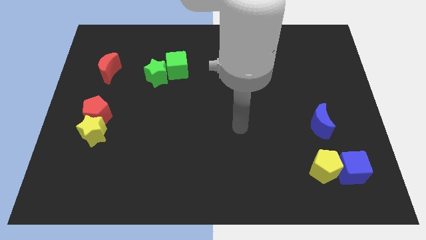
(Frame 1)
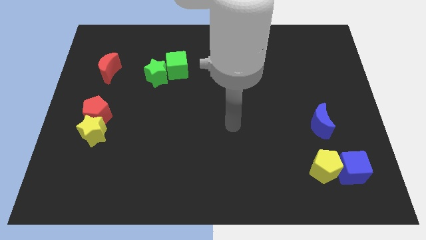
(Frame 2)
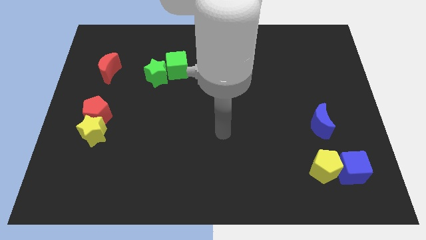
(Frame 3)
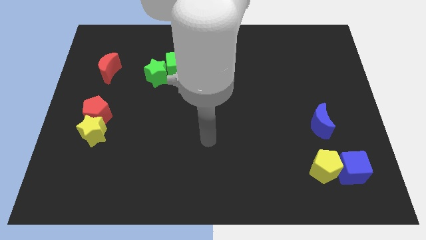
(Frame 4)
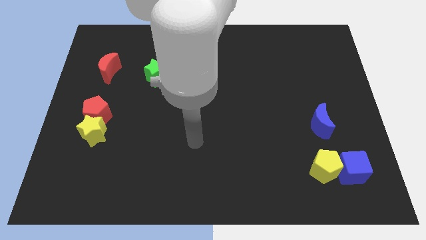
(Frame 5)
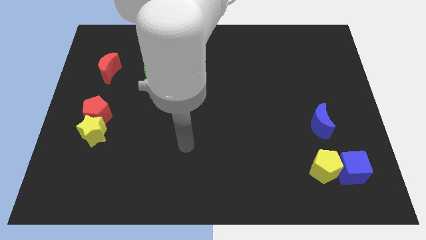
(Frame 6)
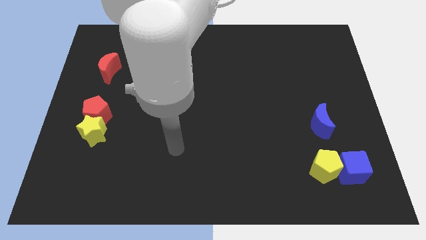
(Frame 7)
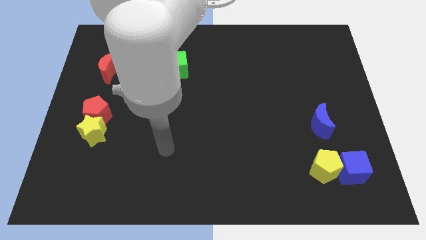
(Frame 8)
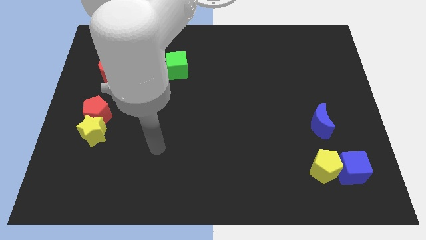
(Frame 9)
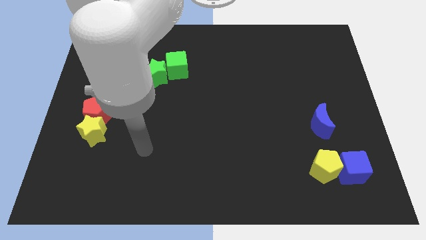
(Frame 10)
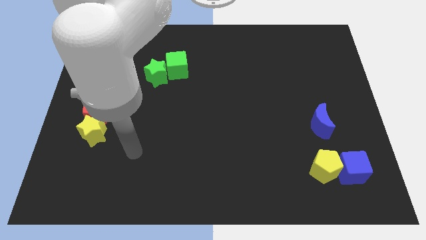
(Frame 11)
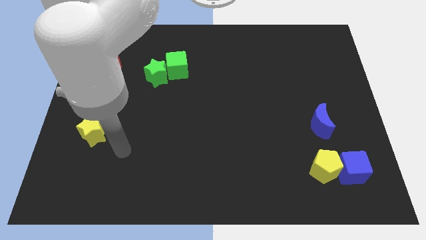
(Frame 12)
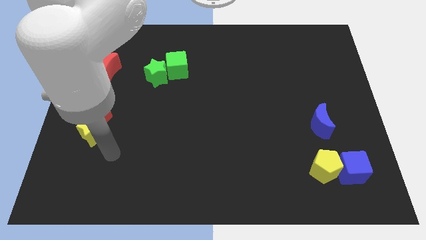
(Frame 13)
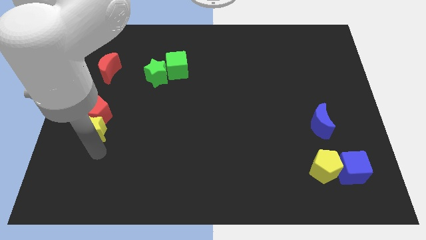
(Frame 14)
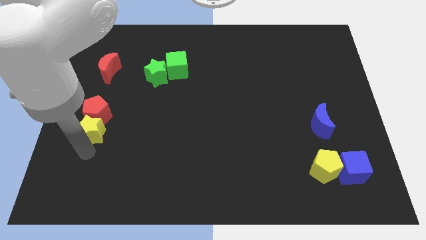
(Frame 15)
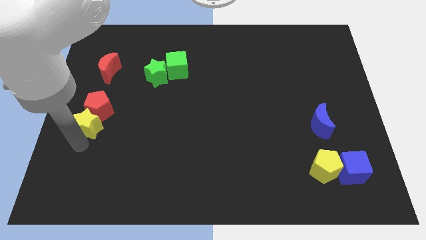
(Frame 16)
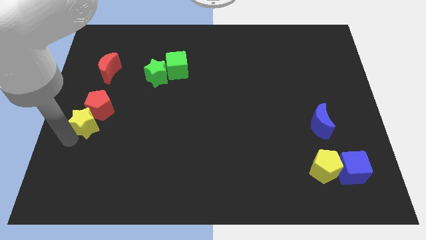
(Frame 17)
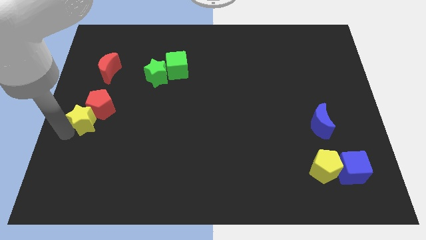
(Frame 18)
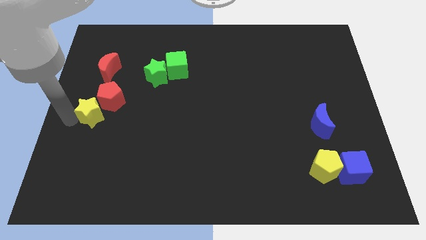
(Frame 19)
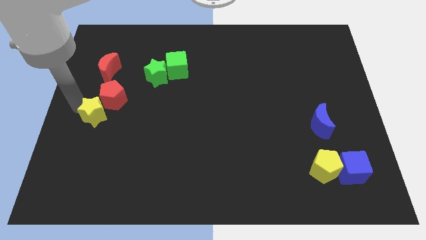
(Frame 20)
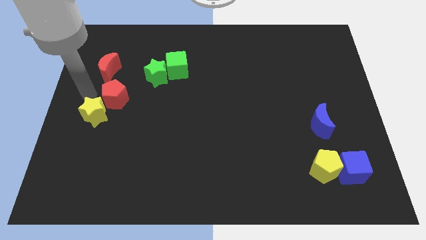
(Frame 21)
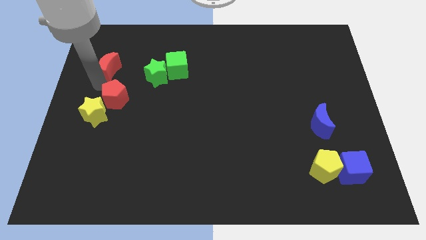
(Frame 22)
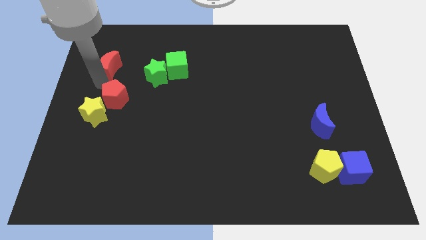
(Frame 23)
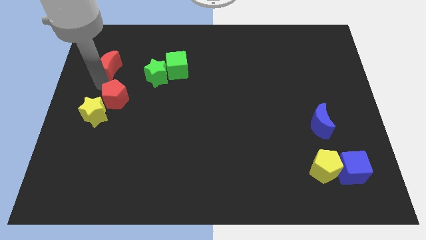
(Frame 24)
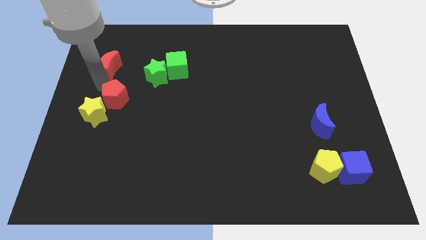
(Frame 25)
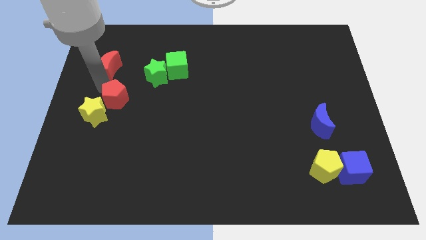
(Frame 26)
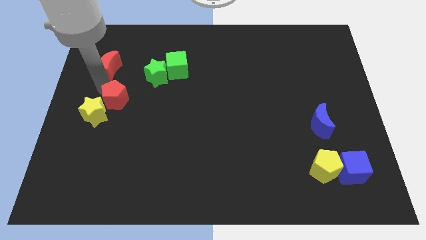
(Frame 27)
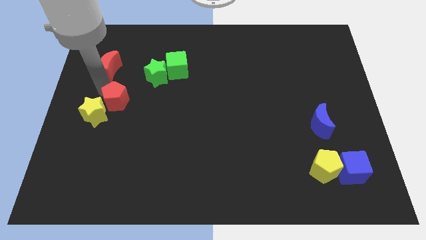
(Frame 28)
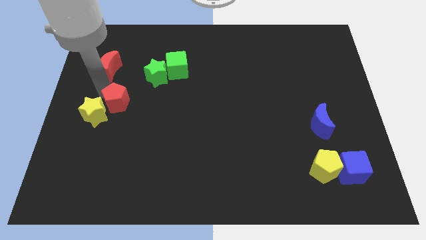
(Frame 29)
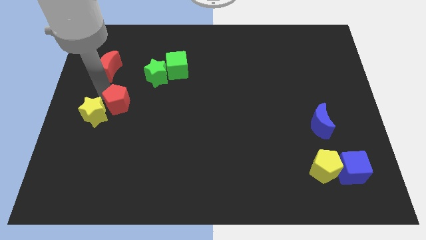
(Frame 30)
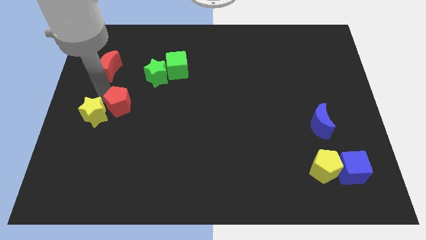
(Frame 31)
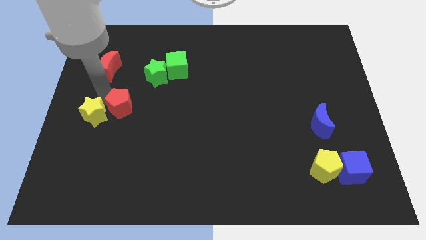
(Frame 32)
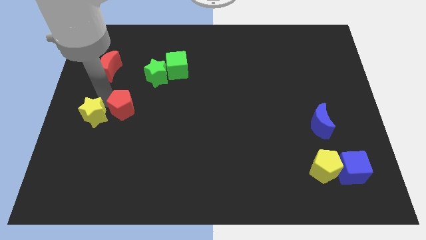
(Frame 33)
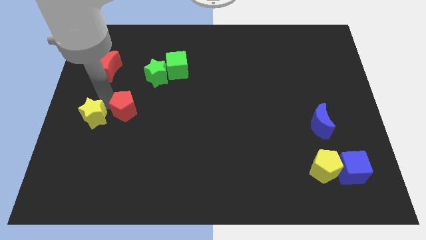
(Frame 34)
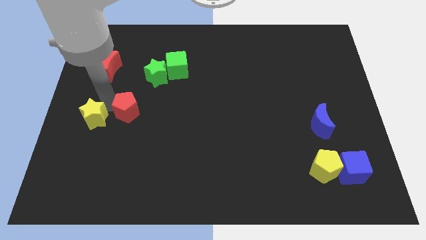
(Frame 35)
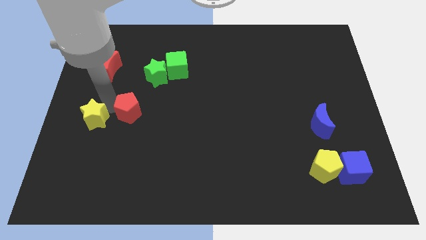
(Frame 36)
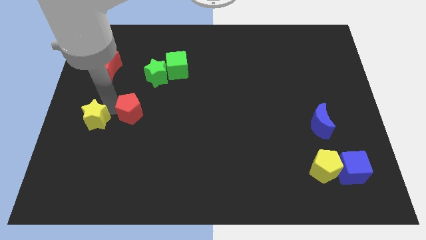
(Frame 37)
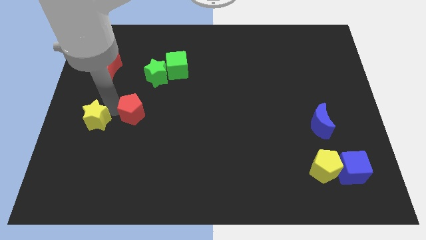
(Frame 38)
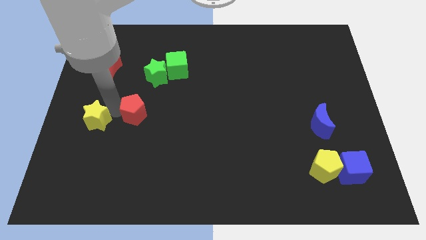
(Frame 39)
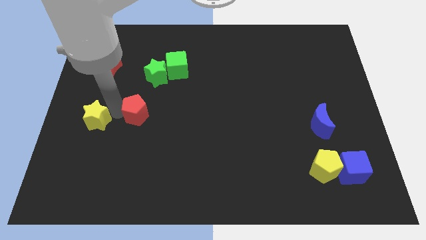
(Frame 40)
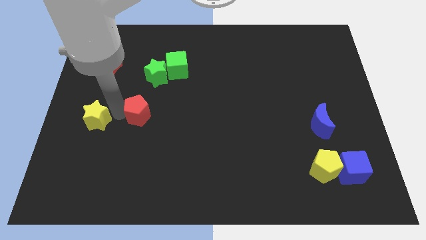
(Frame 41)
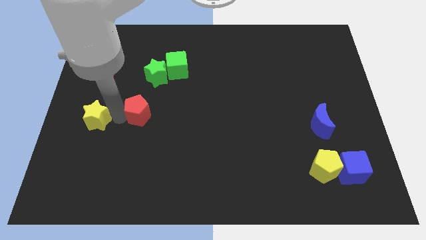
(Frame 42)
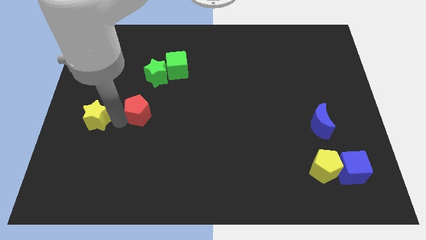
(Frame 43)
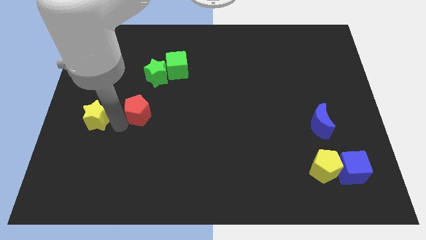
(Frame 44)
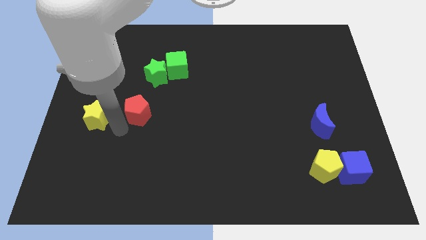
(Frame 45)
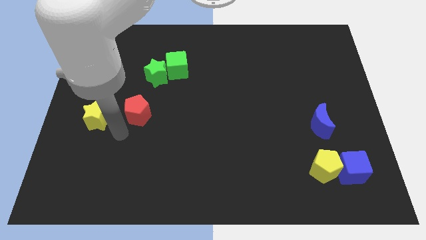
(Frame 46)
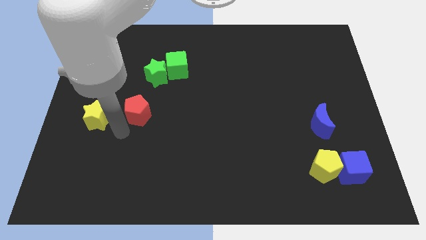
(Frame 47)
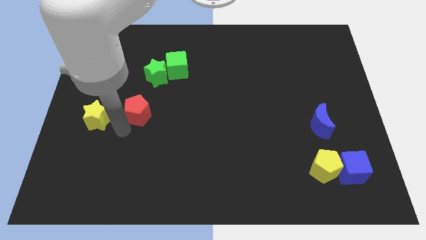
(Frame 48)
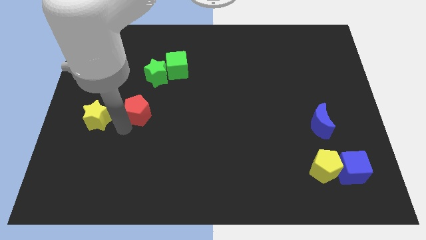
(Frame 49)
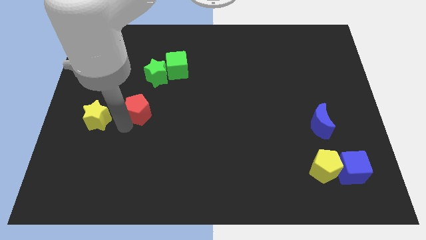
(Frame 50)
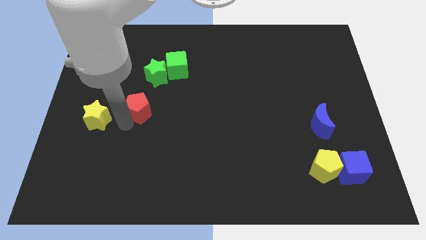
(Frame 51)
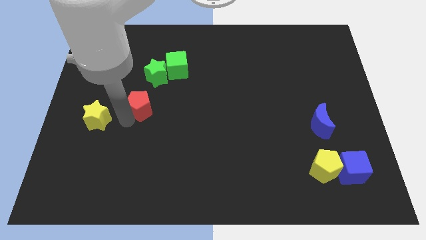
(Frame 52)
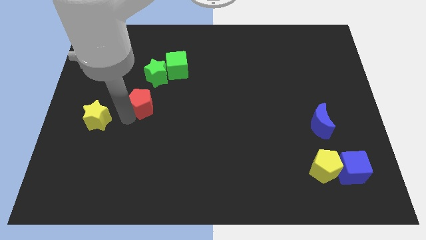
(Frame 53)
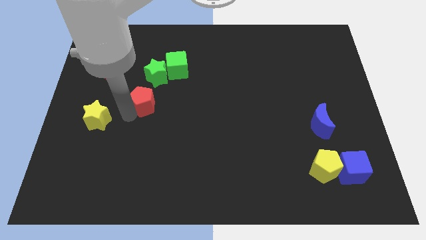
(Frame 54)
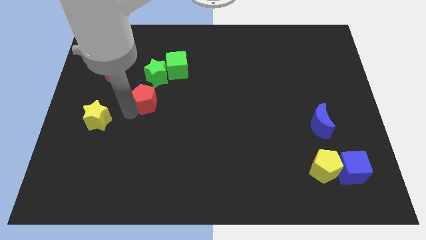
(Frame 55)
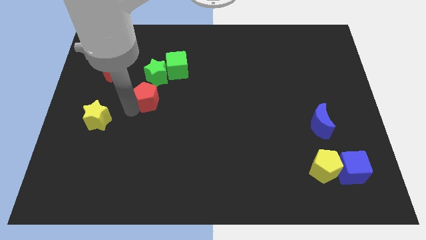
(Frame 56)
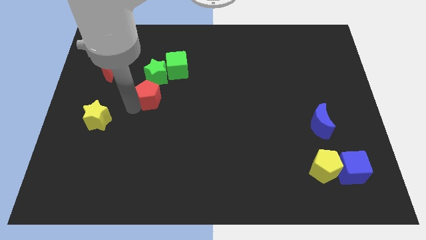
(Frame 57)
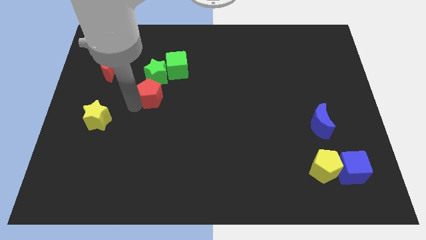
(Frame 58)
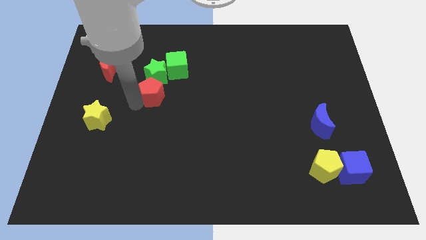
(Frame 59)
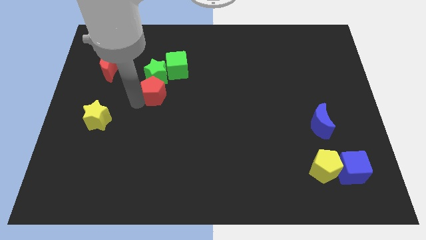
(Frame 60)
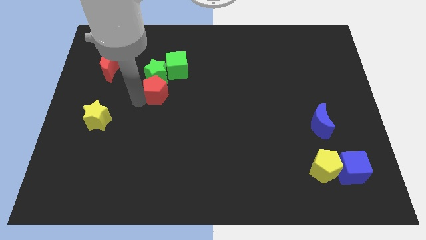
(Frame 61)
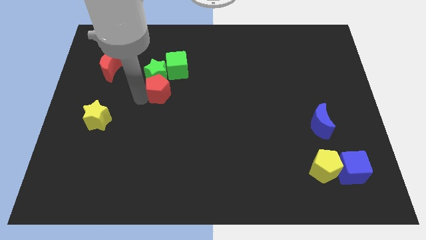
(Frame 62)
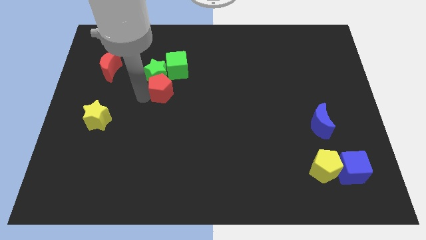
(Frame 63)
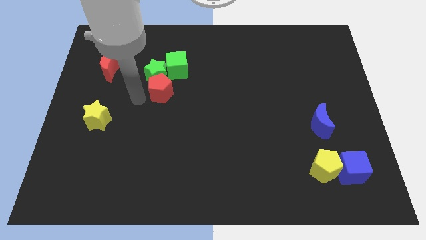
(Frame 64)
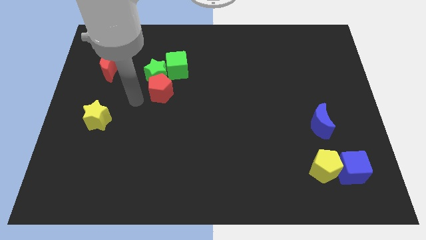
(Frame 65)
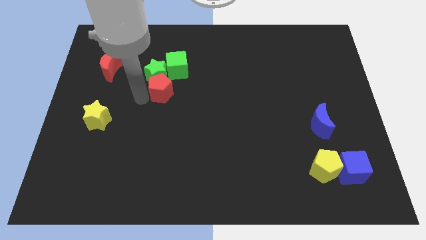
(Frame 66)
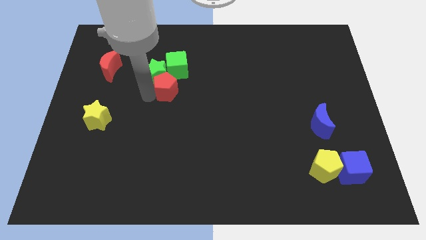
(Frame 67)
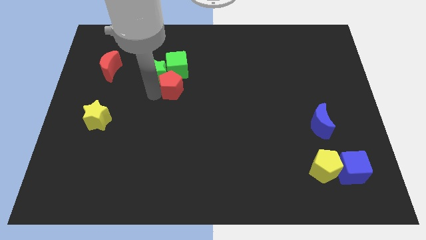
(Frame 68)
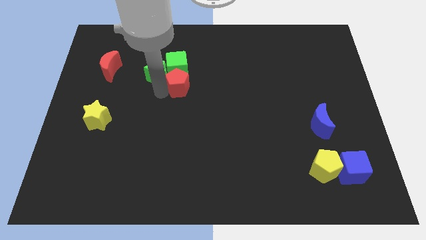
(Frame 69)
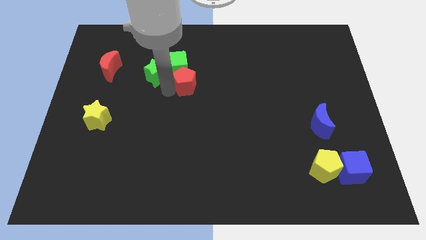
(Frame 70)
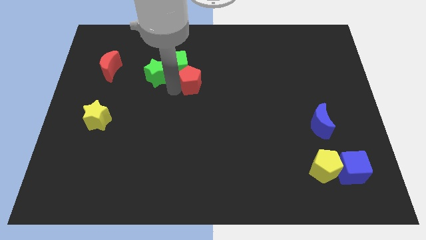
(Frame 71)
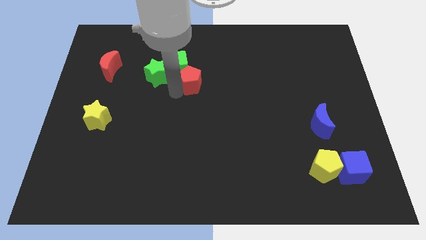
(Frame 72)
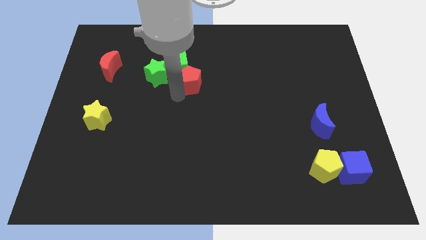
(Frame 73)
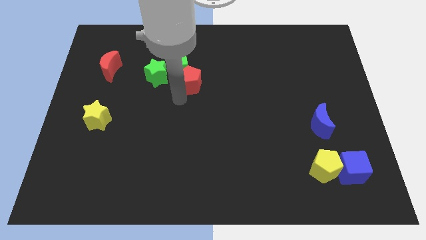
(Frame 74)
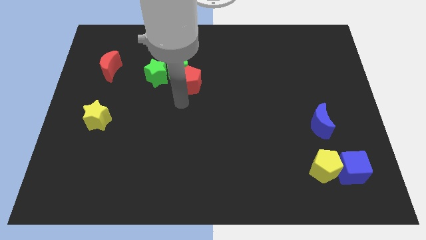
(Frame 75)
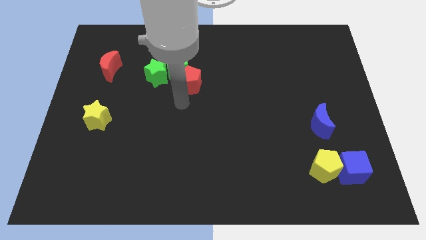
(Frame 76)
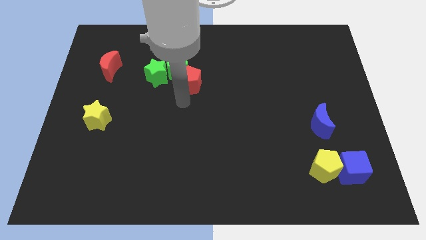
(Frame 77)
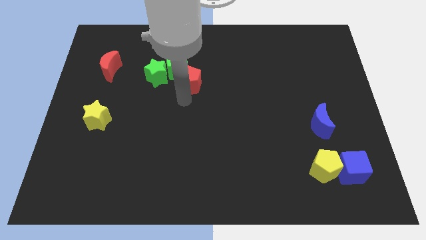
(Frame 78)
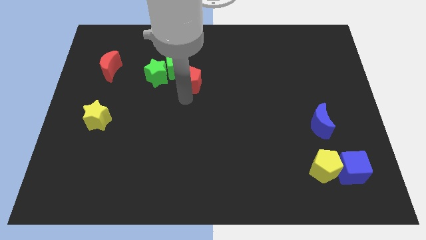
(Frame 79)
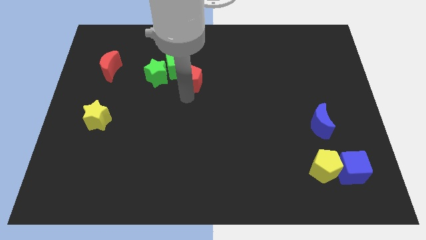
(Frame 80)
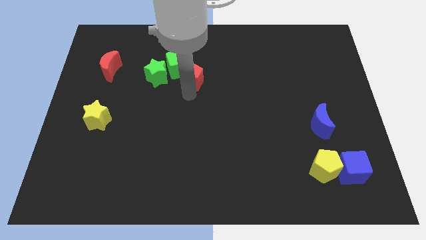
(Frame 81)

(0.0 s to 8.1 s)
push the red pentagon to the right side of the green cube
